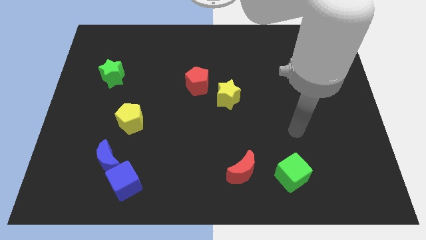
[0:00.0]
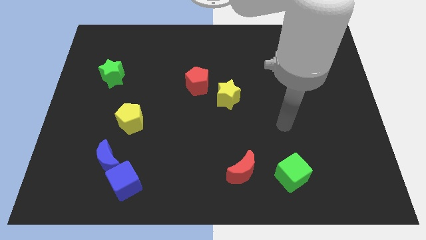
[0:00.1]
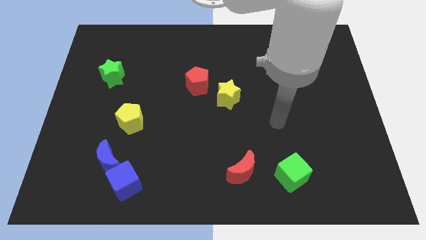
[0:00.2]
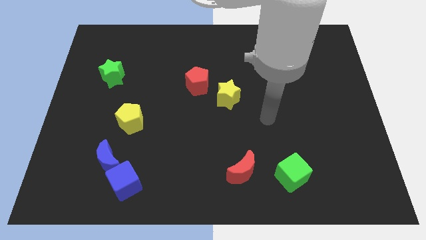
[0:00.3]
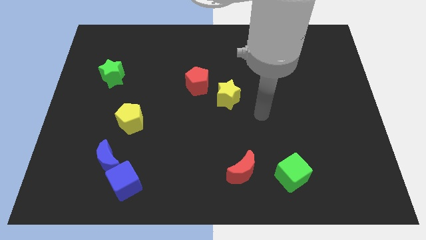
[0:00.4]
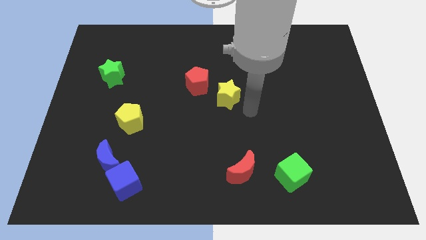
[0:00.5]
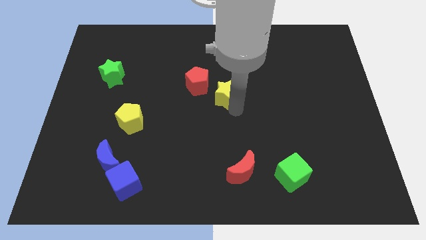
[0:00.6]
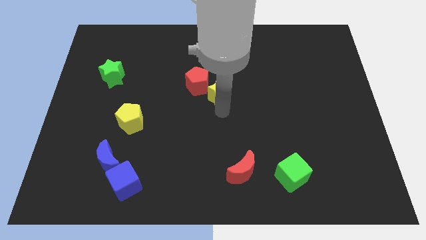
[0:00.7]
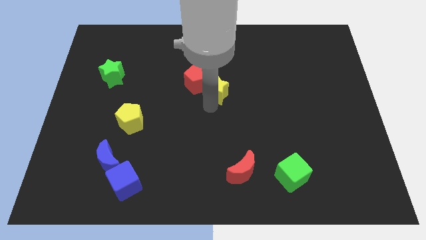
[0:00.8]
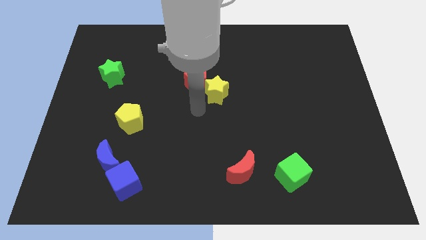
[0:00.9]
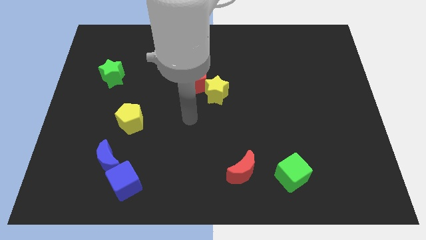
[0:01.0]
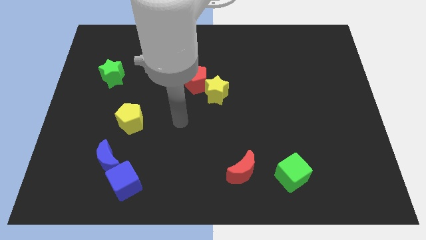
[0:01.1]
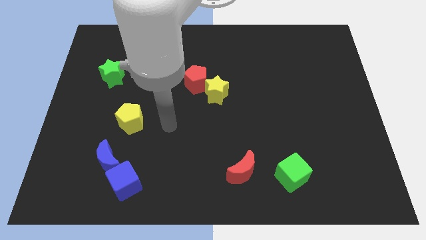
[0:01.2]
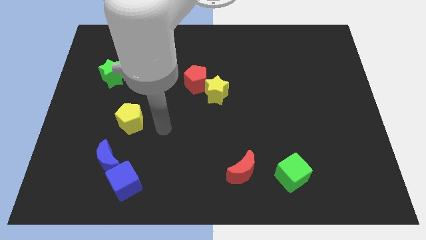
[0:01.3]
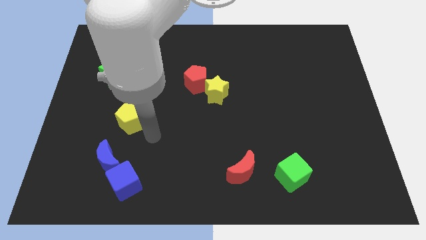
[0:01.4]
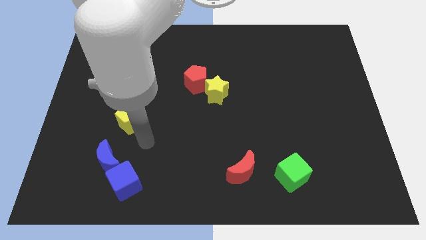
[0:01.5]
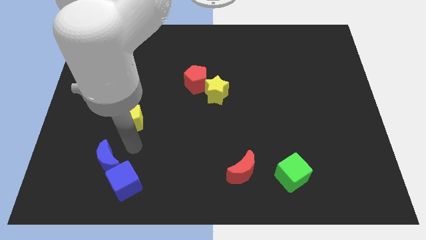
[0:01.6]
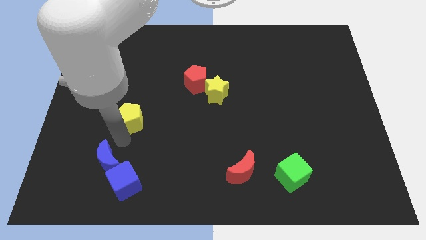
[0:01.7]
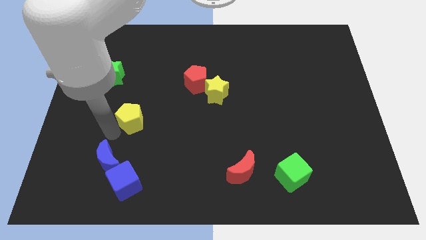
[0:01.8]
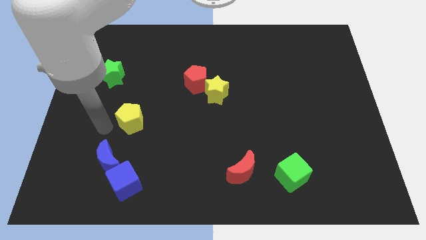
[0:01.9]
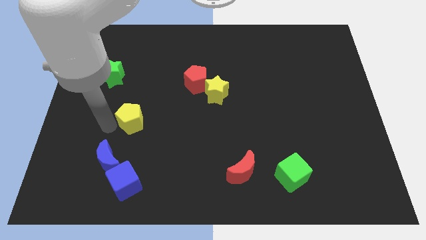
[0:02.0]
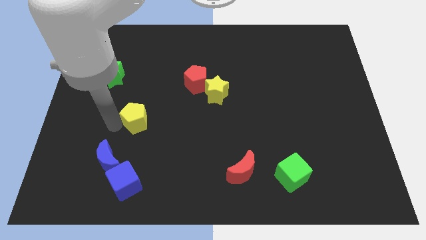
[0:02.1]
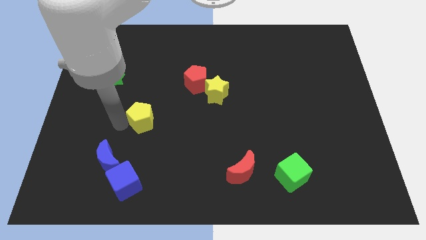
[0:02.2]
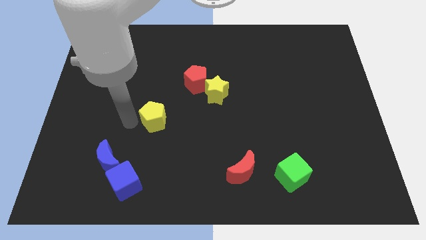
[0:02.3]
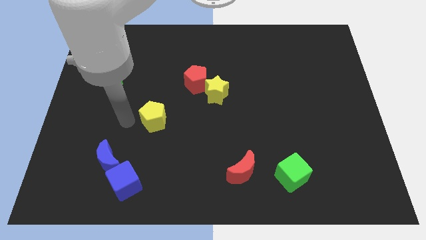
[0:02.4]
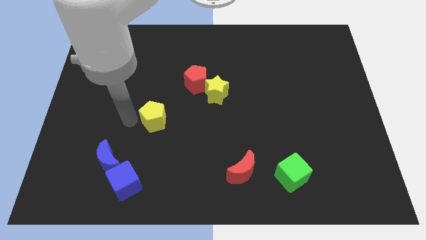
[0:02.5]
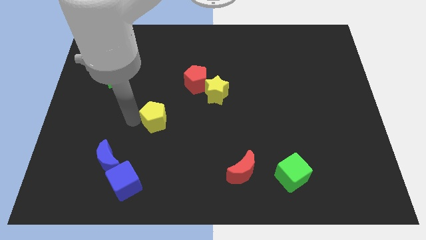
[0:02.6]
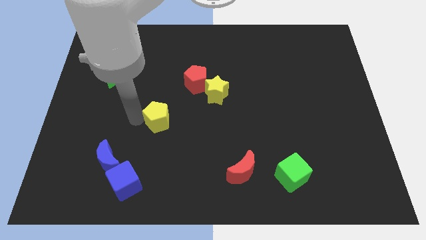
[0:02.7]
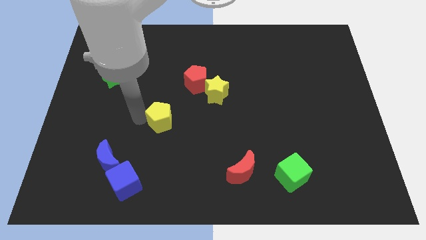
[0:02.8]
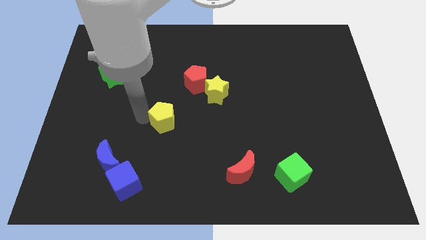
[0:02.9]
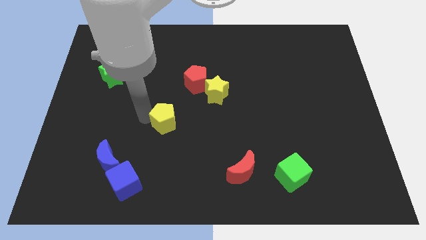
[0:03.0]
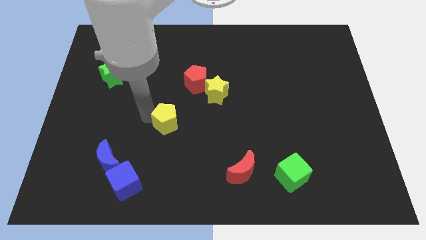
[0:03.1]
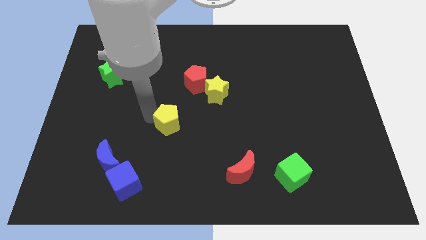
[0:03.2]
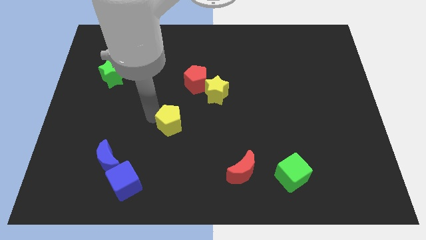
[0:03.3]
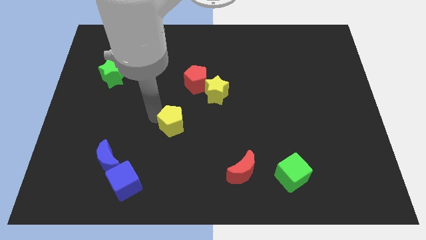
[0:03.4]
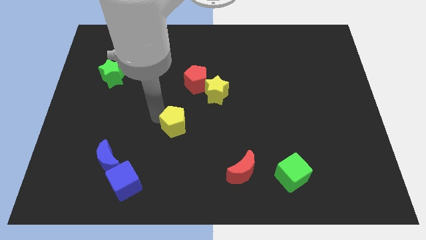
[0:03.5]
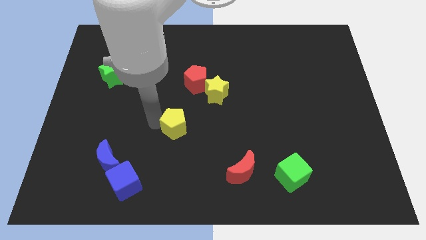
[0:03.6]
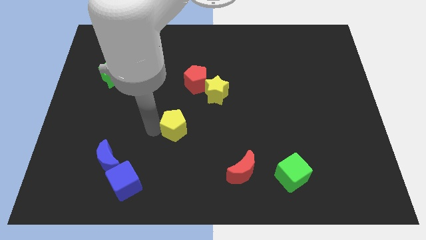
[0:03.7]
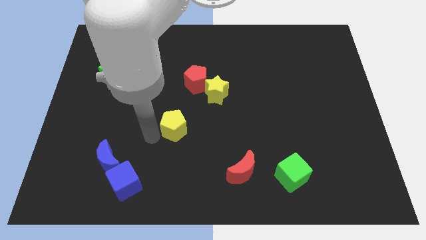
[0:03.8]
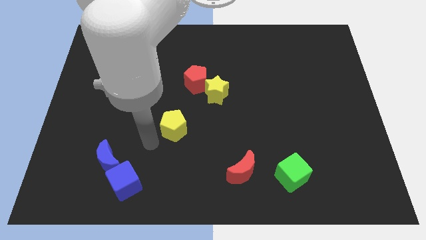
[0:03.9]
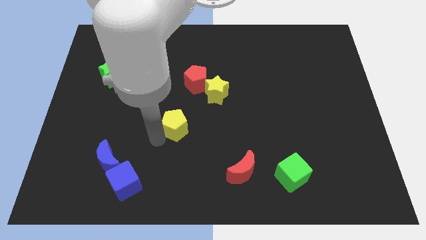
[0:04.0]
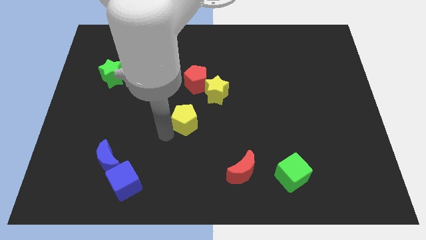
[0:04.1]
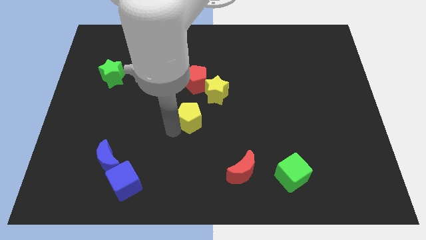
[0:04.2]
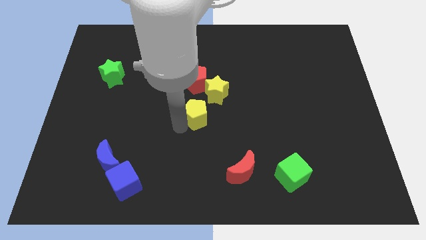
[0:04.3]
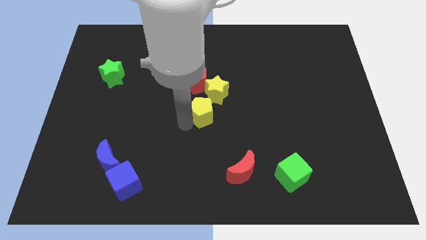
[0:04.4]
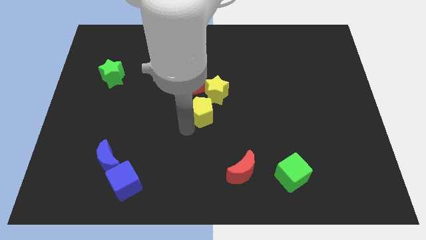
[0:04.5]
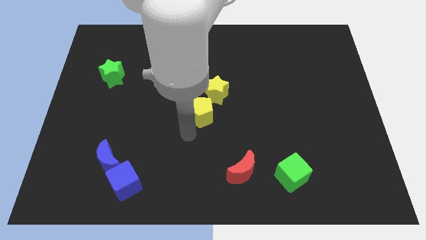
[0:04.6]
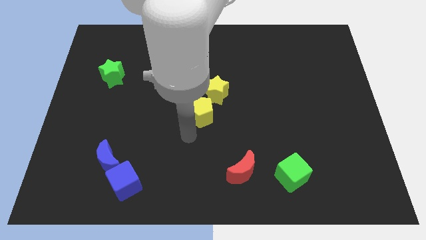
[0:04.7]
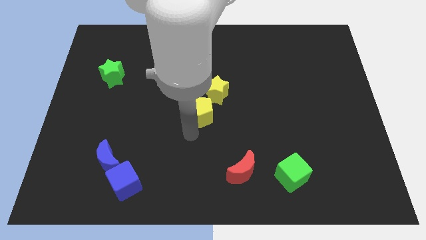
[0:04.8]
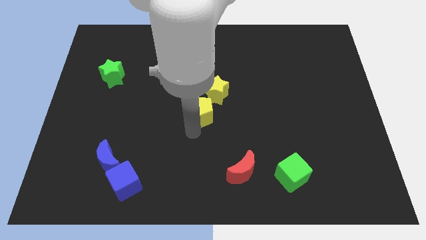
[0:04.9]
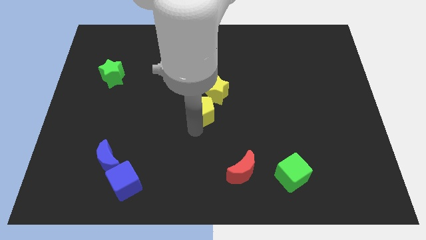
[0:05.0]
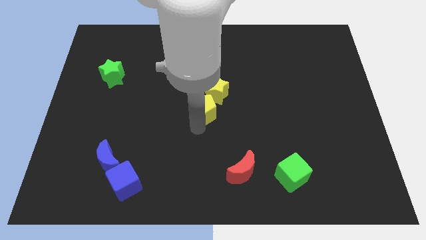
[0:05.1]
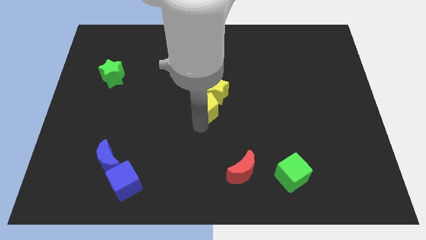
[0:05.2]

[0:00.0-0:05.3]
push the yellow pentagon next to the yellow star

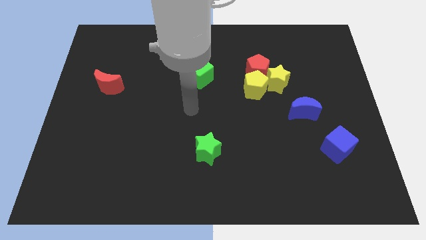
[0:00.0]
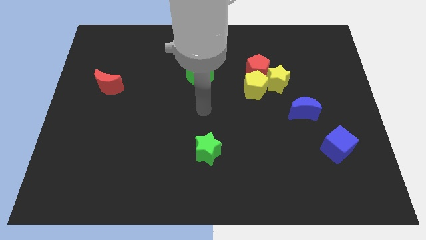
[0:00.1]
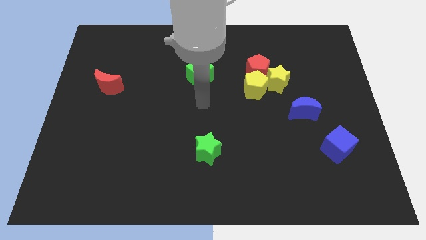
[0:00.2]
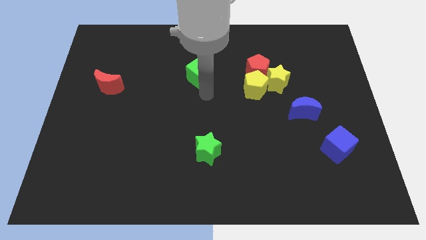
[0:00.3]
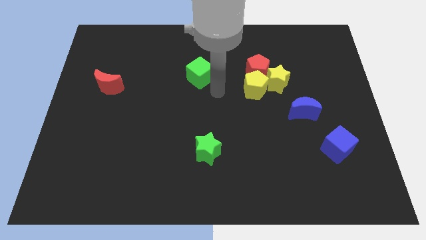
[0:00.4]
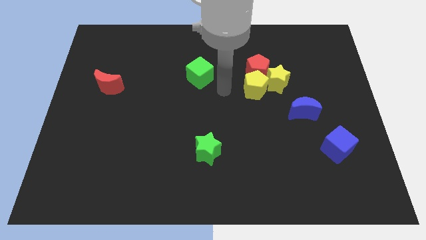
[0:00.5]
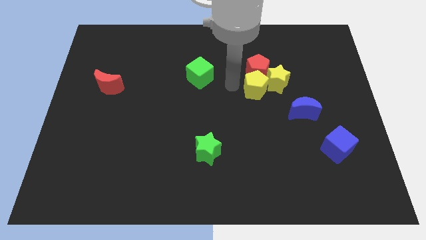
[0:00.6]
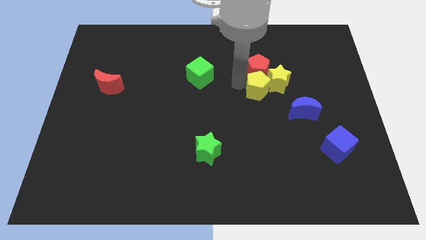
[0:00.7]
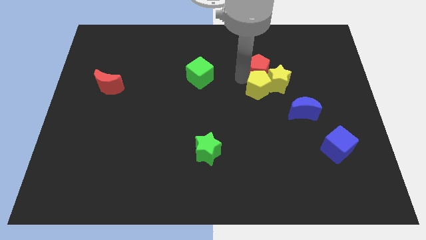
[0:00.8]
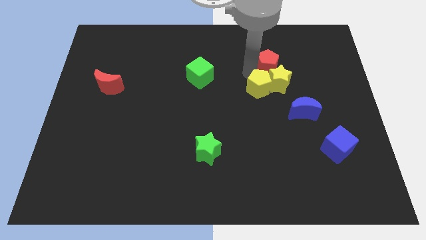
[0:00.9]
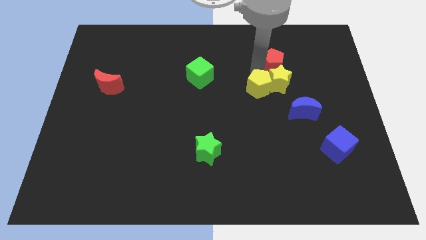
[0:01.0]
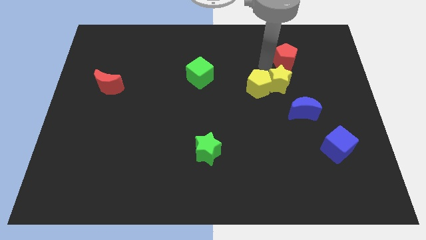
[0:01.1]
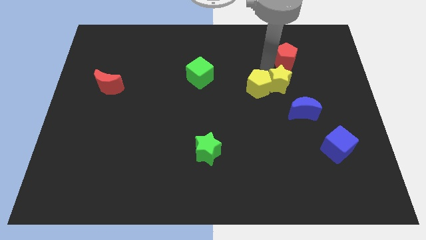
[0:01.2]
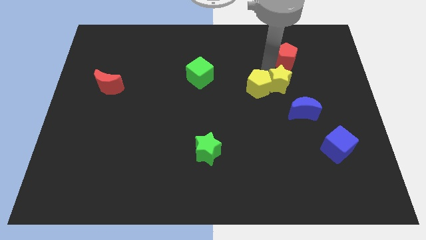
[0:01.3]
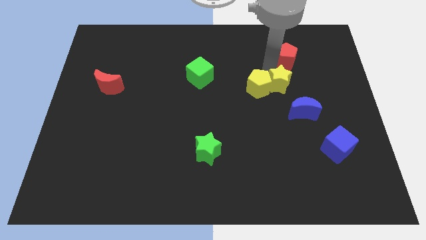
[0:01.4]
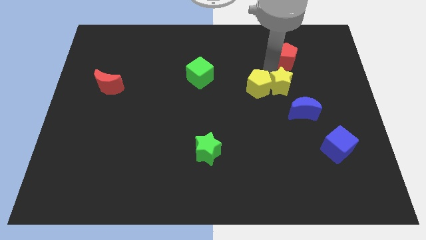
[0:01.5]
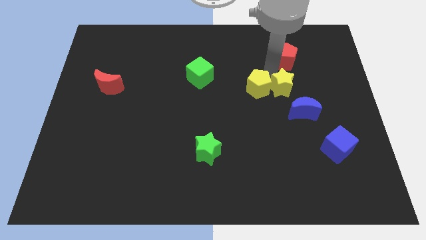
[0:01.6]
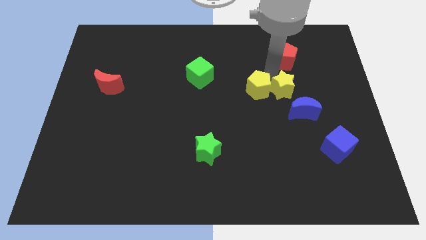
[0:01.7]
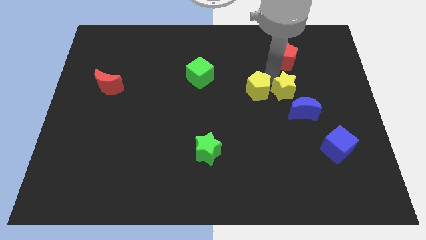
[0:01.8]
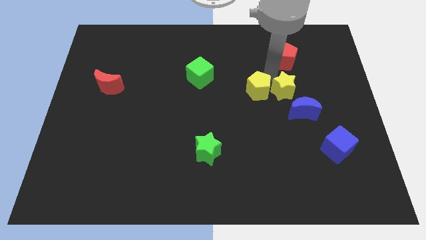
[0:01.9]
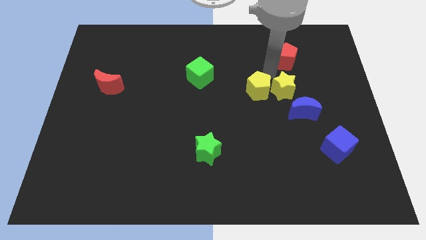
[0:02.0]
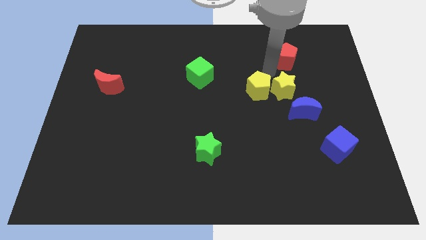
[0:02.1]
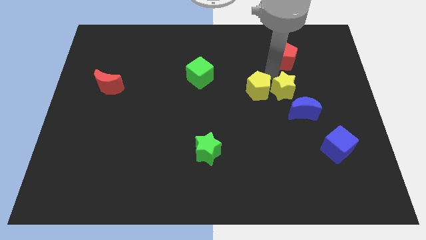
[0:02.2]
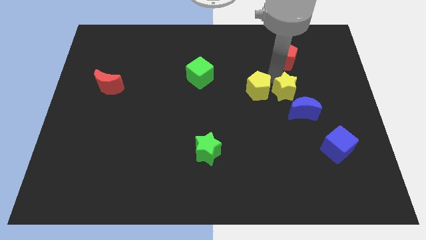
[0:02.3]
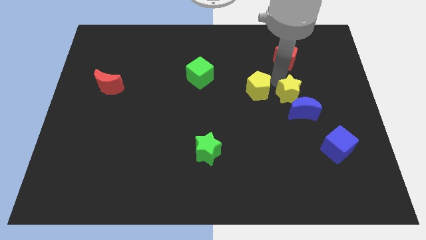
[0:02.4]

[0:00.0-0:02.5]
put the yellow star next to the blue moon
